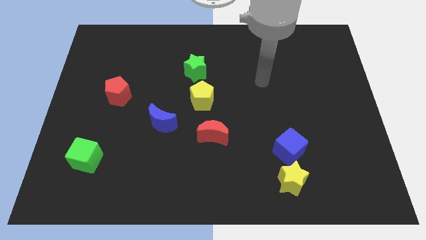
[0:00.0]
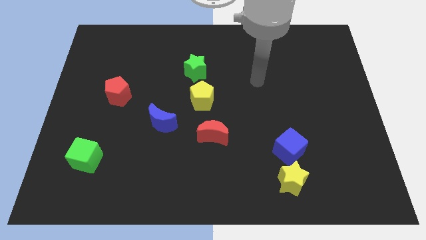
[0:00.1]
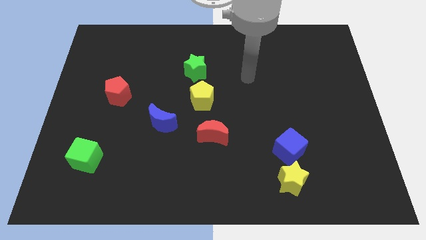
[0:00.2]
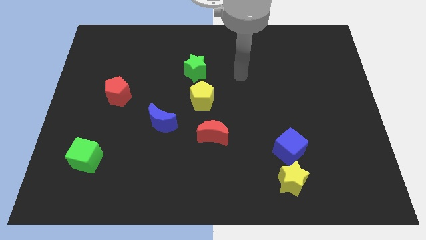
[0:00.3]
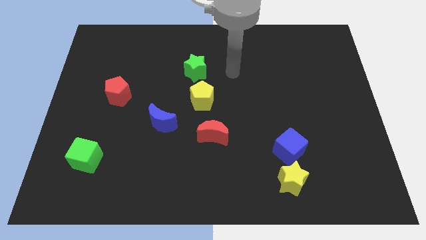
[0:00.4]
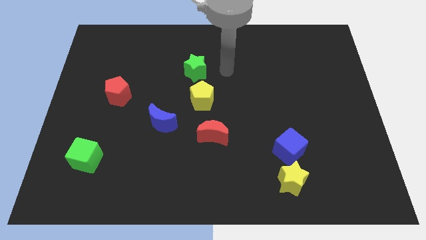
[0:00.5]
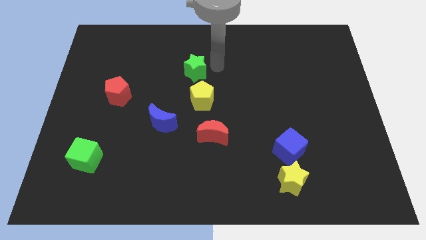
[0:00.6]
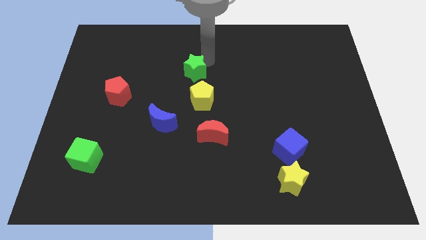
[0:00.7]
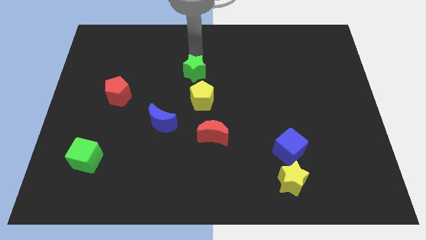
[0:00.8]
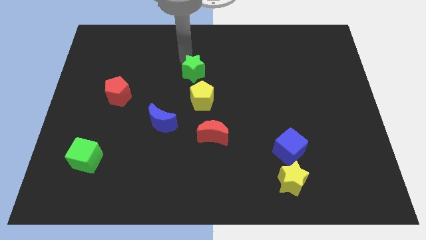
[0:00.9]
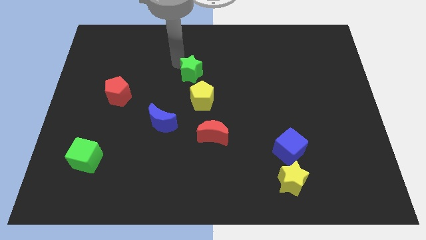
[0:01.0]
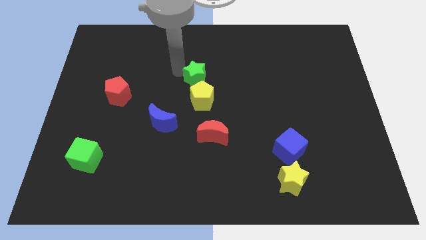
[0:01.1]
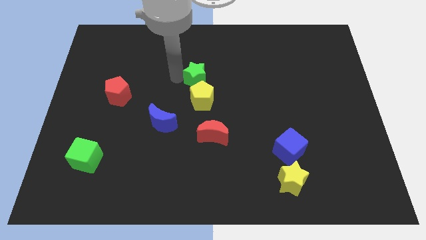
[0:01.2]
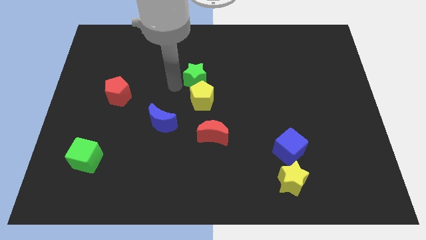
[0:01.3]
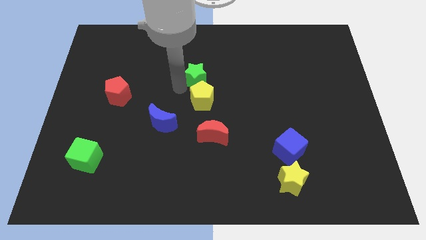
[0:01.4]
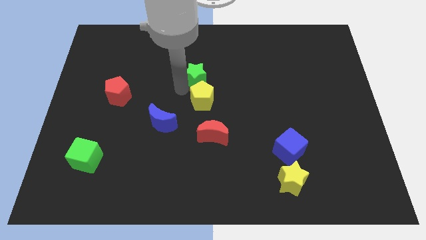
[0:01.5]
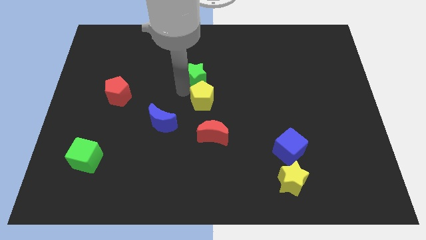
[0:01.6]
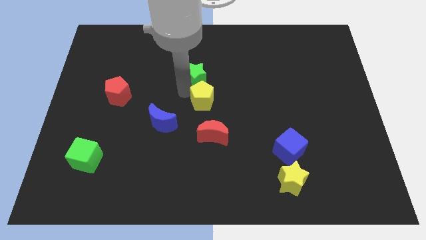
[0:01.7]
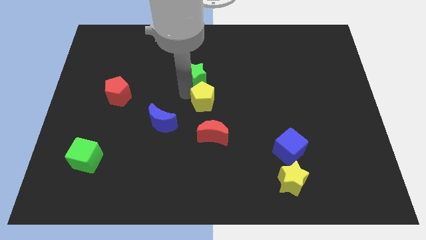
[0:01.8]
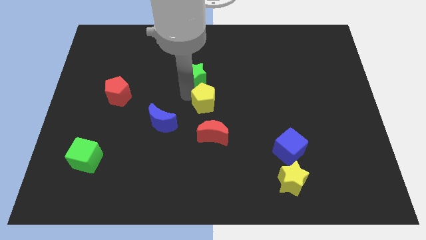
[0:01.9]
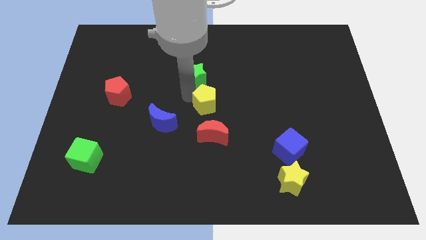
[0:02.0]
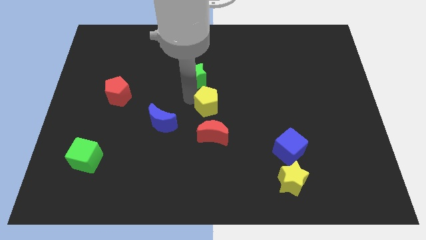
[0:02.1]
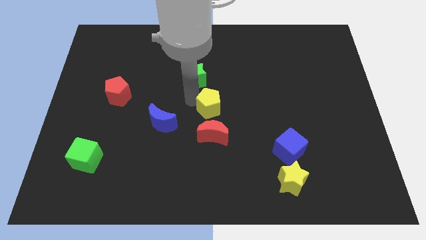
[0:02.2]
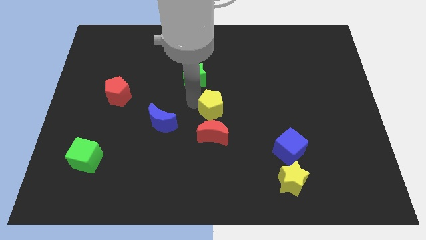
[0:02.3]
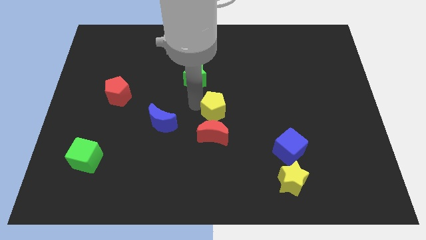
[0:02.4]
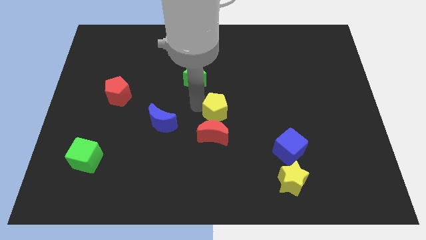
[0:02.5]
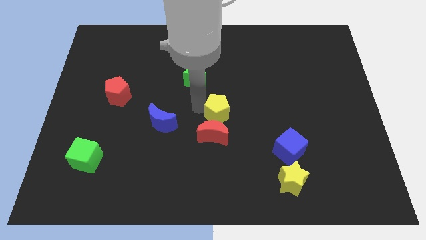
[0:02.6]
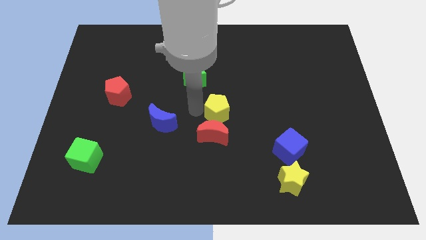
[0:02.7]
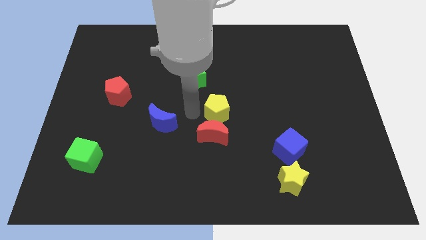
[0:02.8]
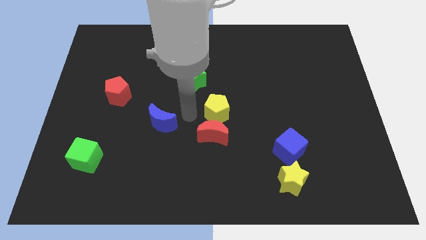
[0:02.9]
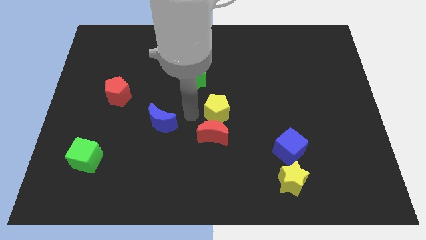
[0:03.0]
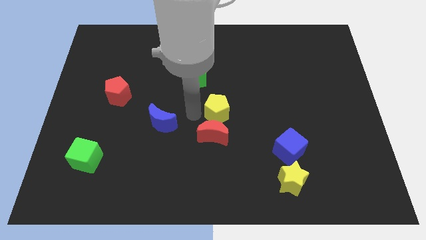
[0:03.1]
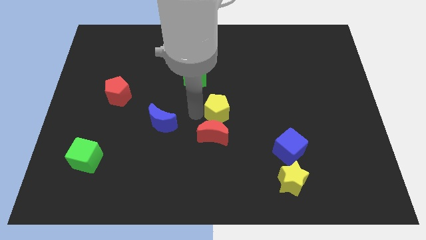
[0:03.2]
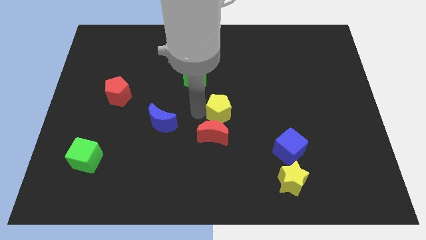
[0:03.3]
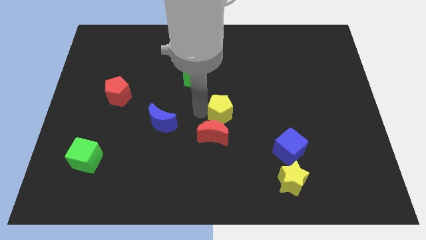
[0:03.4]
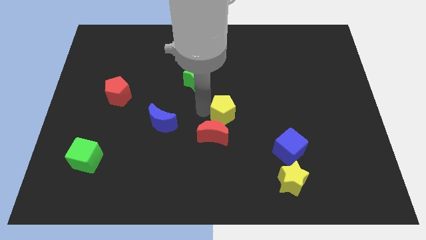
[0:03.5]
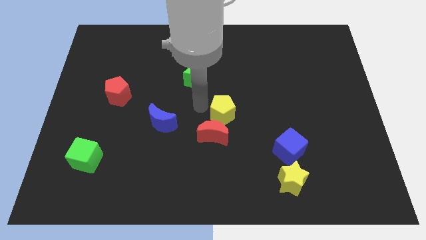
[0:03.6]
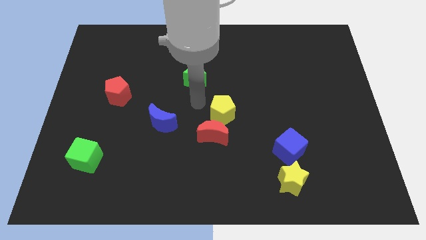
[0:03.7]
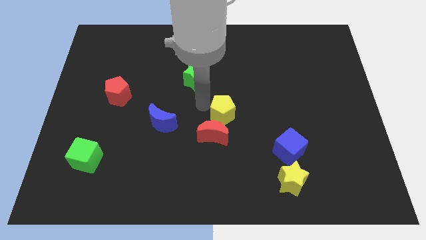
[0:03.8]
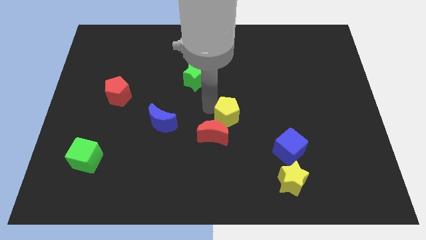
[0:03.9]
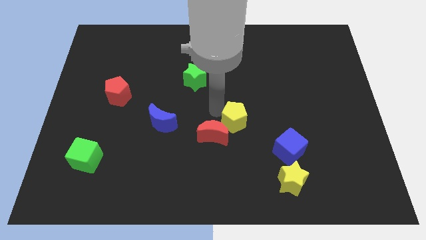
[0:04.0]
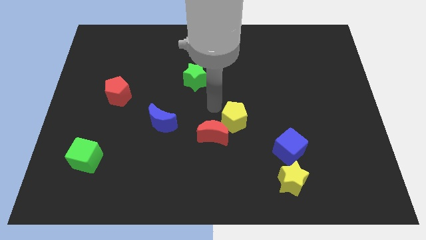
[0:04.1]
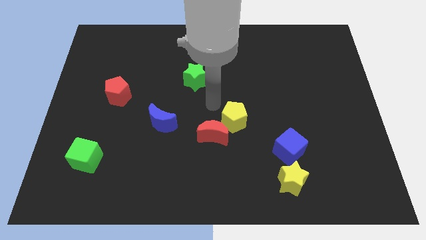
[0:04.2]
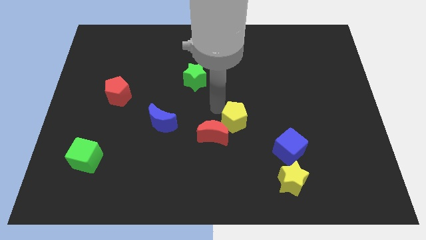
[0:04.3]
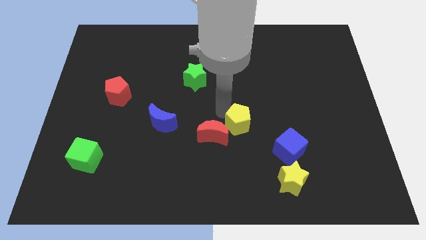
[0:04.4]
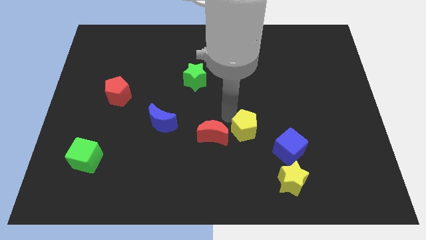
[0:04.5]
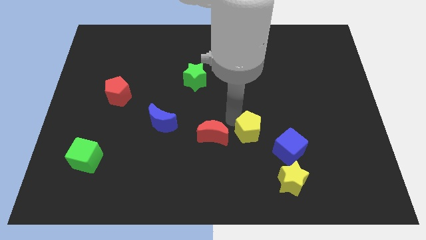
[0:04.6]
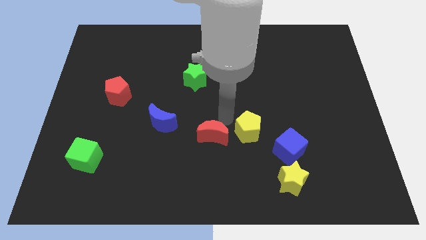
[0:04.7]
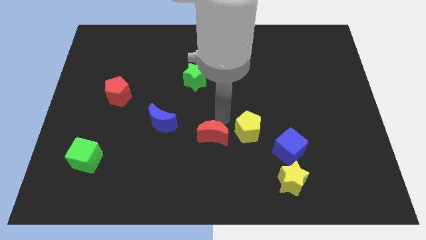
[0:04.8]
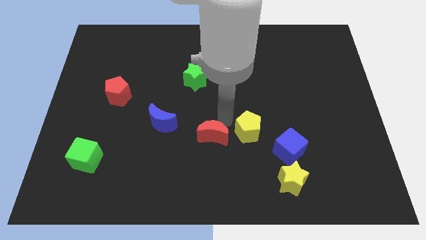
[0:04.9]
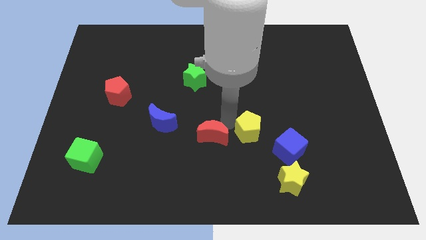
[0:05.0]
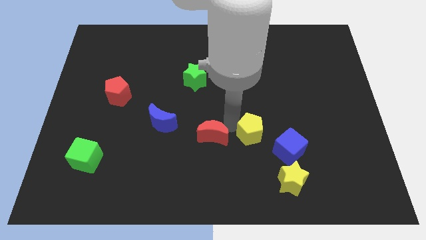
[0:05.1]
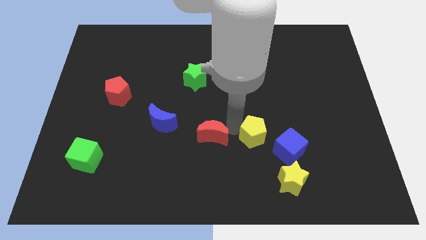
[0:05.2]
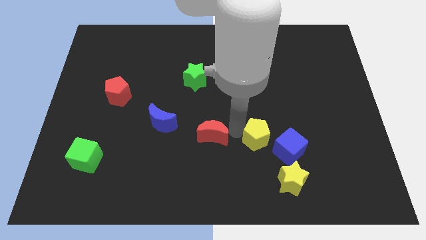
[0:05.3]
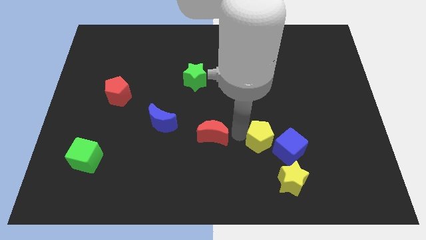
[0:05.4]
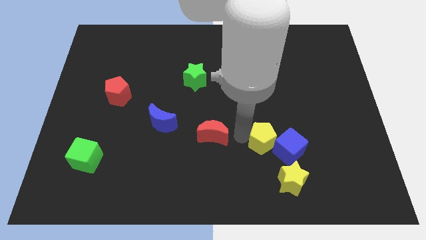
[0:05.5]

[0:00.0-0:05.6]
put the yellow pentagon to the blue cube

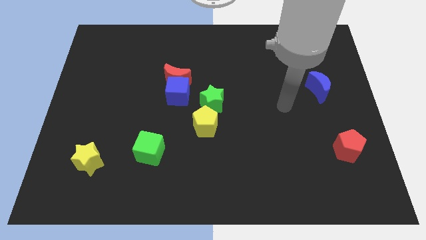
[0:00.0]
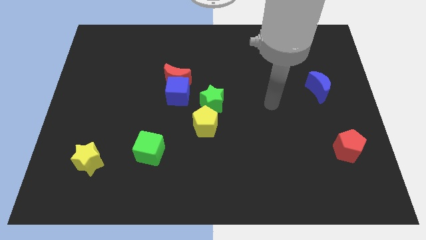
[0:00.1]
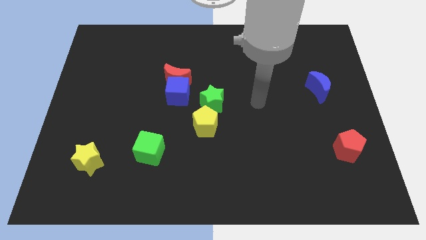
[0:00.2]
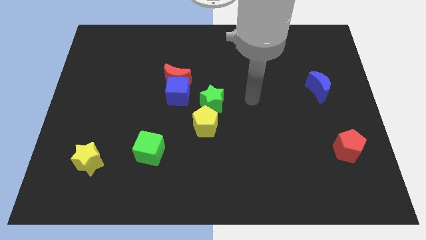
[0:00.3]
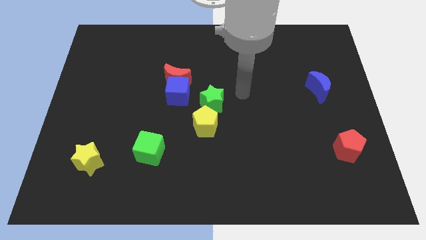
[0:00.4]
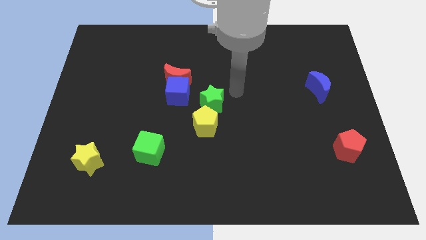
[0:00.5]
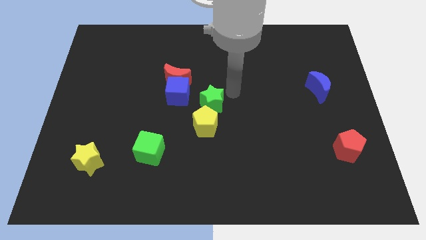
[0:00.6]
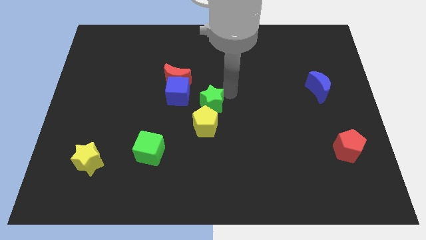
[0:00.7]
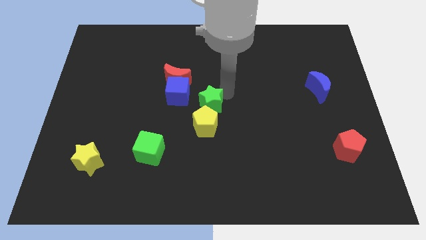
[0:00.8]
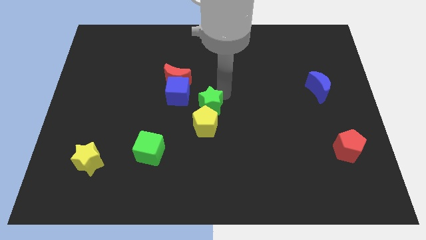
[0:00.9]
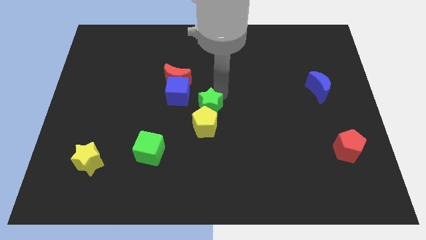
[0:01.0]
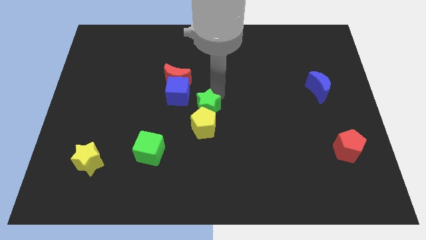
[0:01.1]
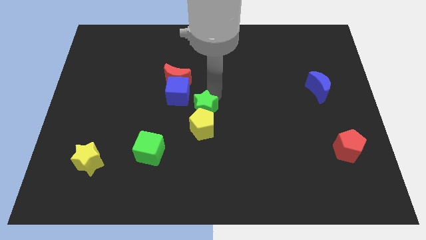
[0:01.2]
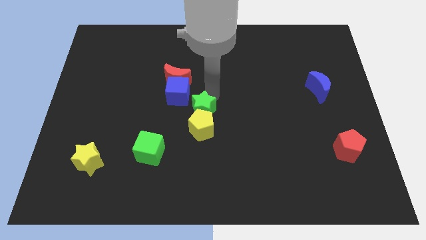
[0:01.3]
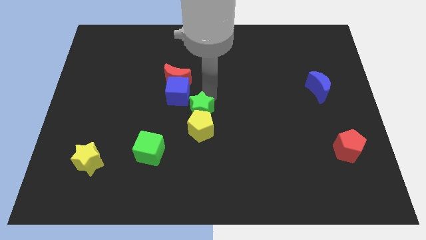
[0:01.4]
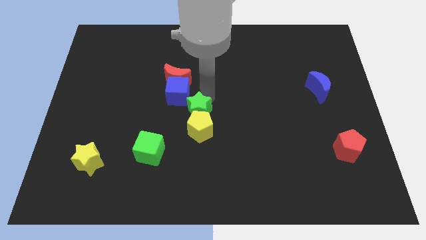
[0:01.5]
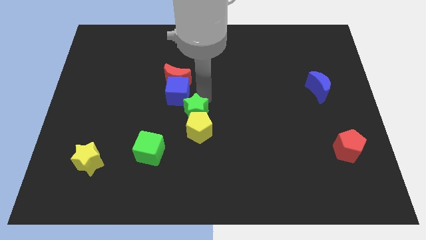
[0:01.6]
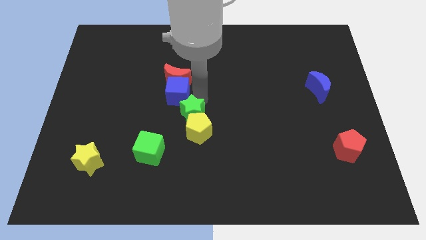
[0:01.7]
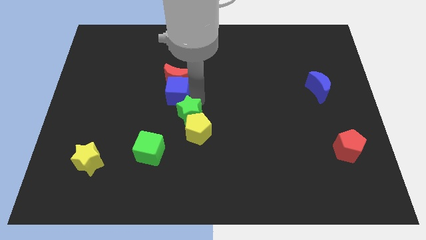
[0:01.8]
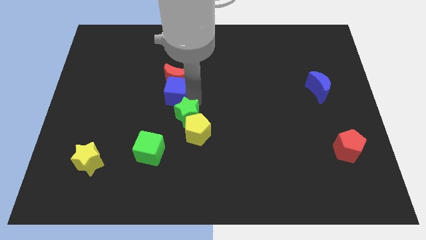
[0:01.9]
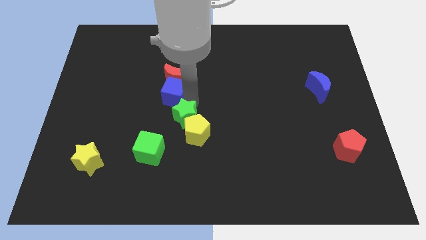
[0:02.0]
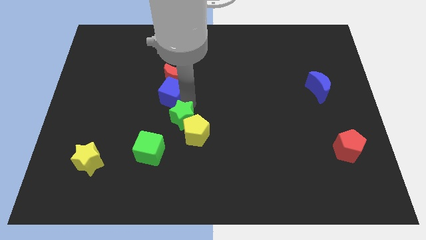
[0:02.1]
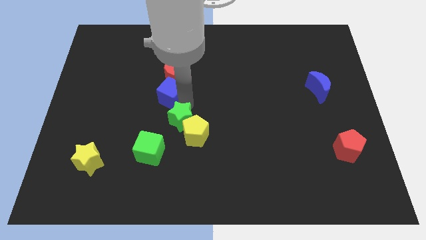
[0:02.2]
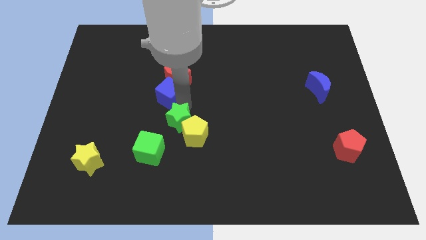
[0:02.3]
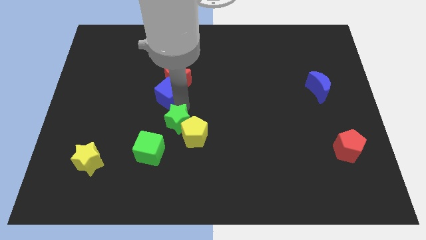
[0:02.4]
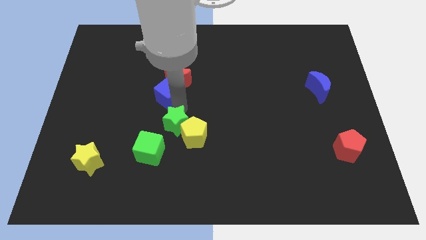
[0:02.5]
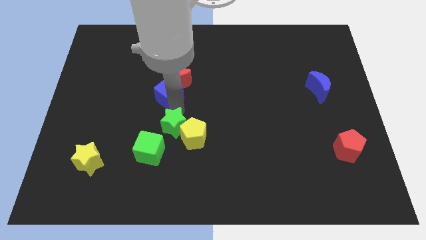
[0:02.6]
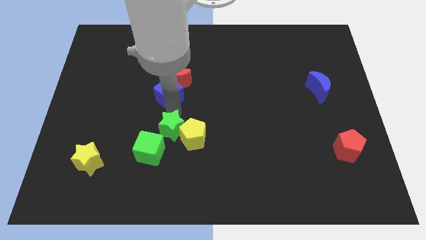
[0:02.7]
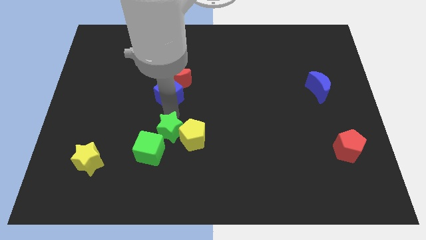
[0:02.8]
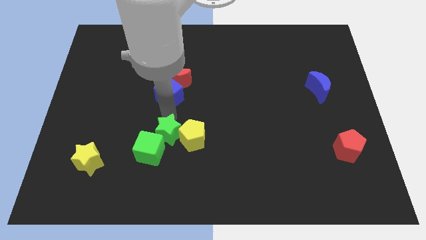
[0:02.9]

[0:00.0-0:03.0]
slide the green star close to the green cube
